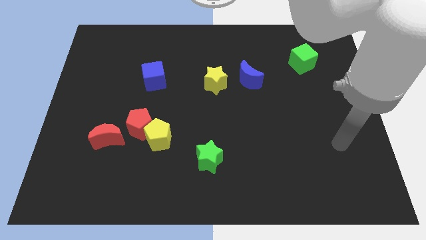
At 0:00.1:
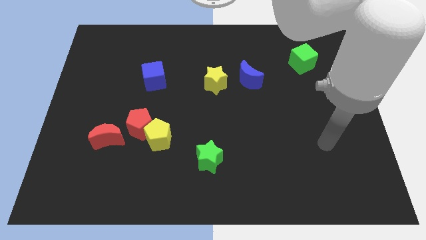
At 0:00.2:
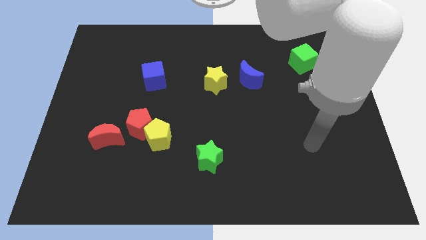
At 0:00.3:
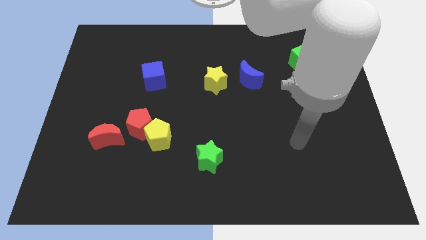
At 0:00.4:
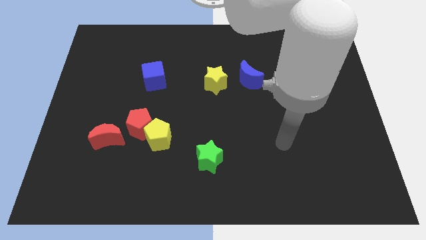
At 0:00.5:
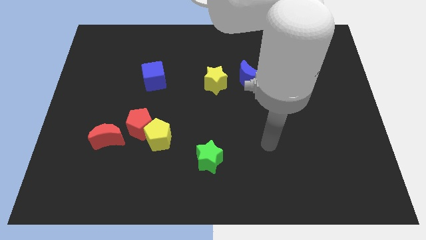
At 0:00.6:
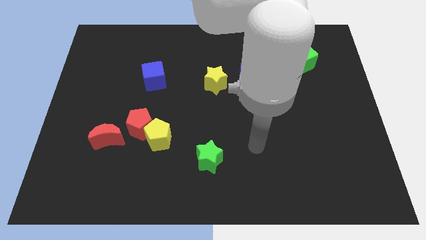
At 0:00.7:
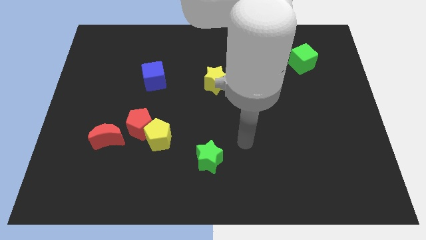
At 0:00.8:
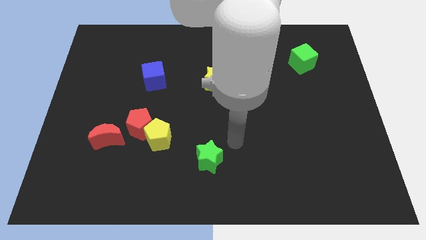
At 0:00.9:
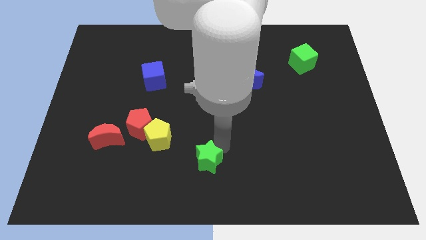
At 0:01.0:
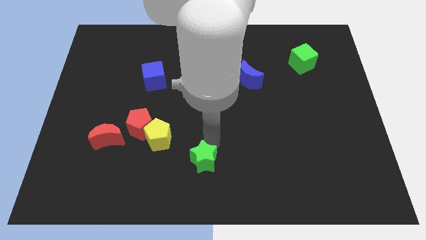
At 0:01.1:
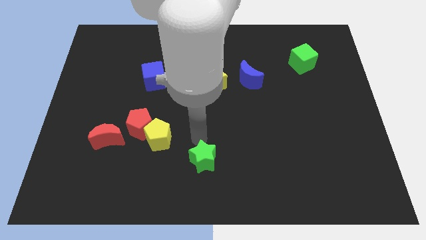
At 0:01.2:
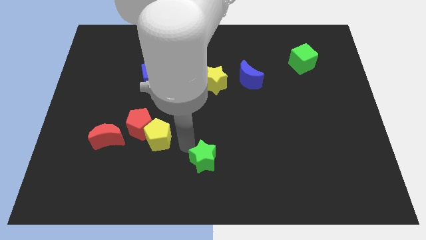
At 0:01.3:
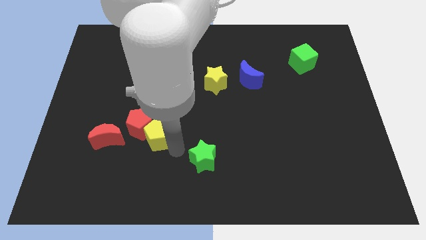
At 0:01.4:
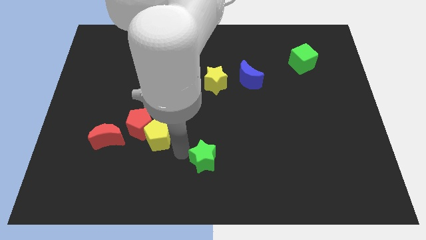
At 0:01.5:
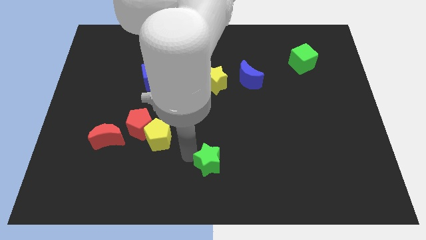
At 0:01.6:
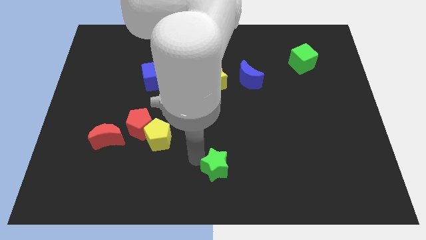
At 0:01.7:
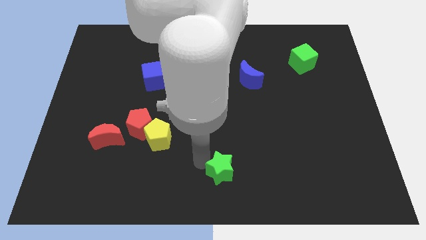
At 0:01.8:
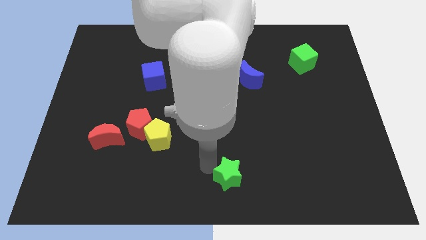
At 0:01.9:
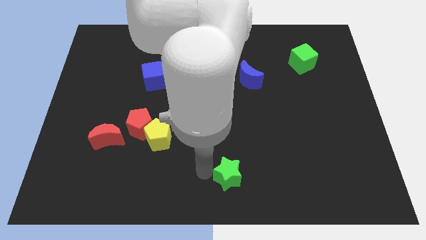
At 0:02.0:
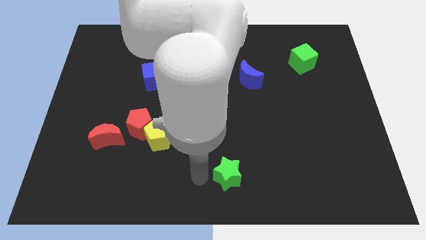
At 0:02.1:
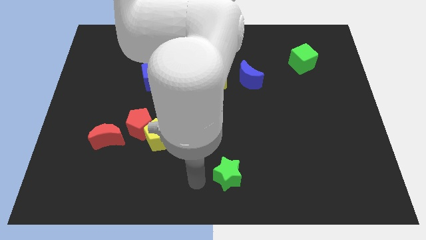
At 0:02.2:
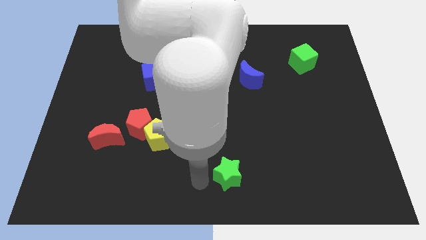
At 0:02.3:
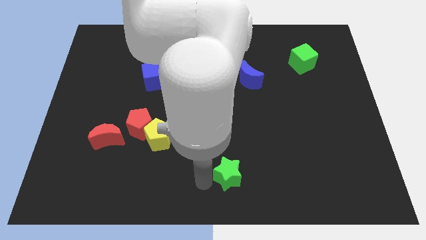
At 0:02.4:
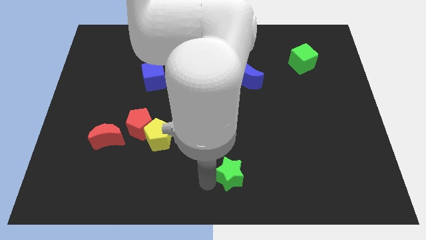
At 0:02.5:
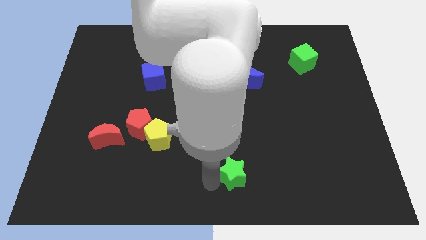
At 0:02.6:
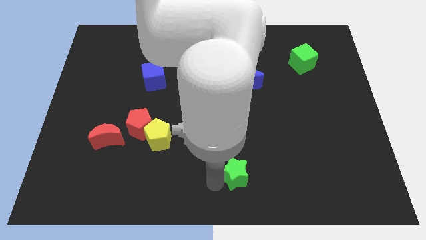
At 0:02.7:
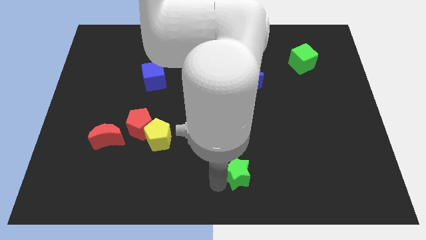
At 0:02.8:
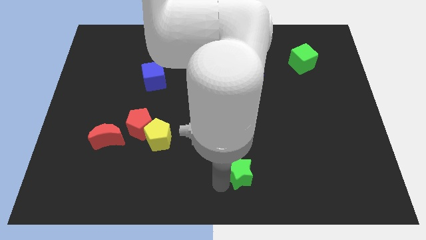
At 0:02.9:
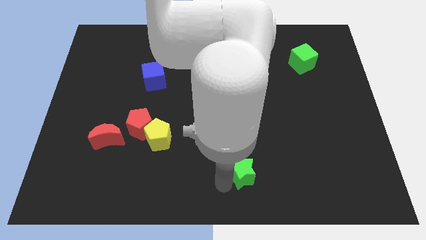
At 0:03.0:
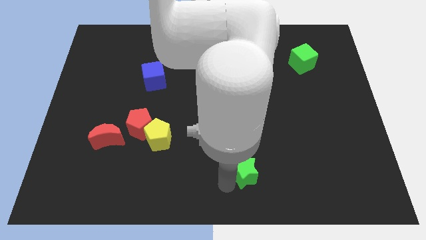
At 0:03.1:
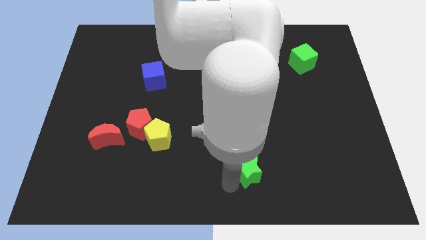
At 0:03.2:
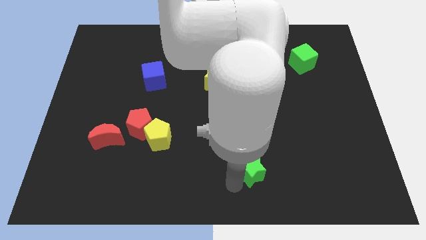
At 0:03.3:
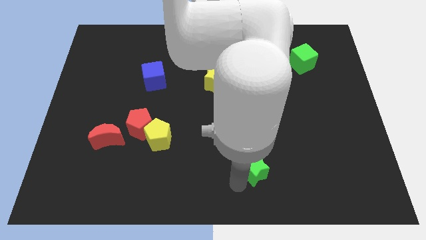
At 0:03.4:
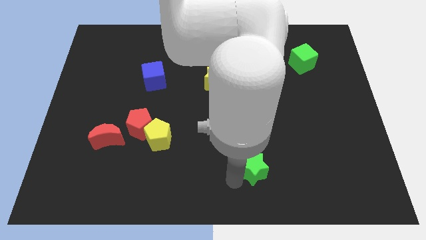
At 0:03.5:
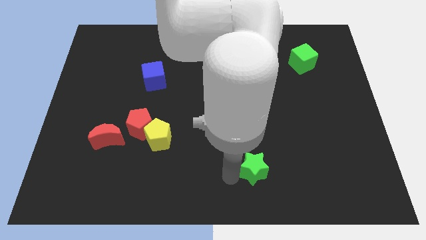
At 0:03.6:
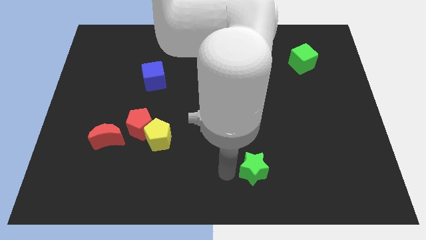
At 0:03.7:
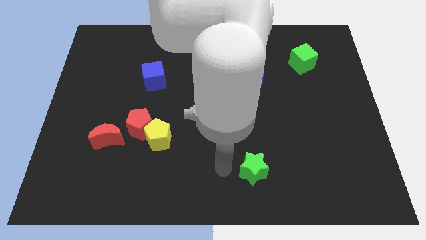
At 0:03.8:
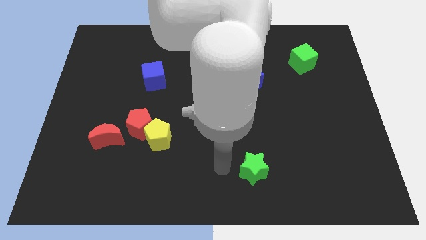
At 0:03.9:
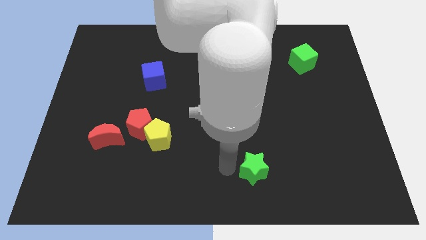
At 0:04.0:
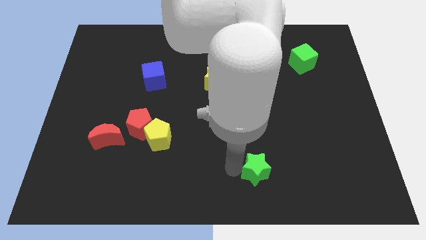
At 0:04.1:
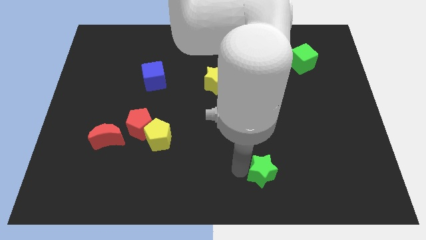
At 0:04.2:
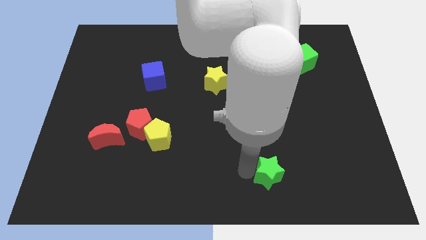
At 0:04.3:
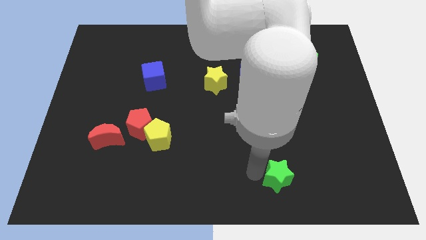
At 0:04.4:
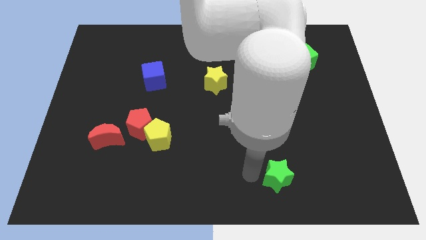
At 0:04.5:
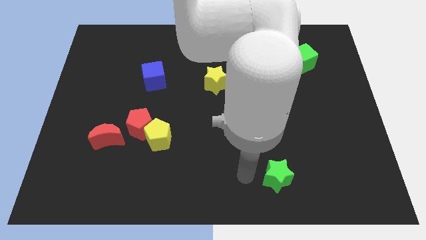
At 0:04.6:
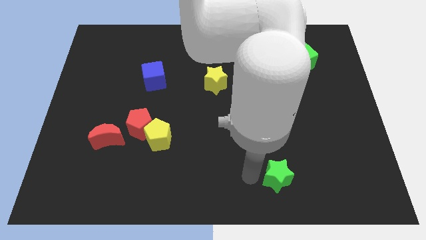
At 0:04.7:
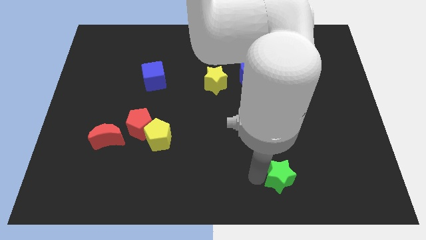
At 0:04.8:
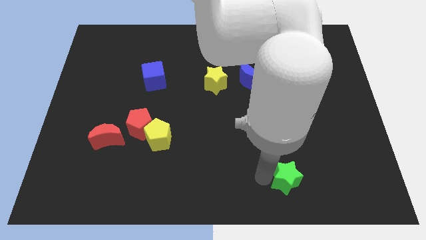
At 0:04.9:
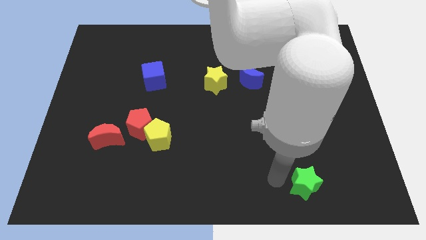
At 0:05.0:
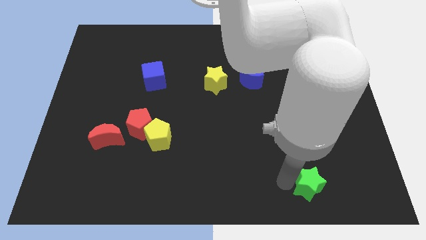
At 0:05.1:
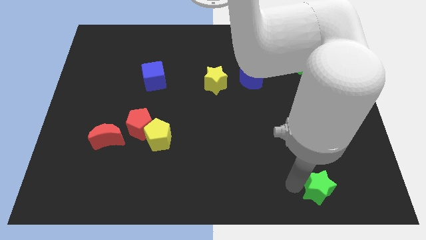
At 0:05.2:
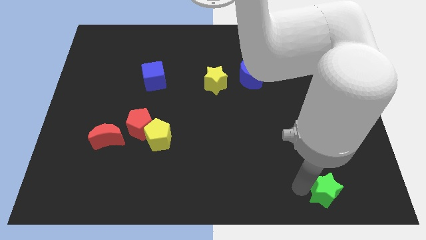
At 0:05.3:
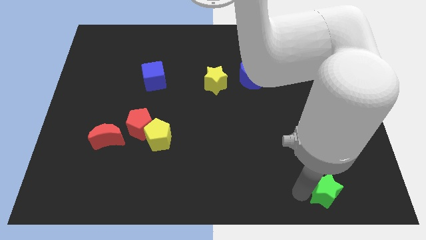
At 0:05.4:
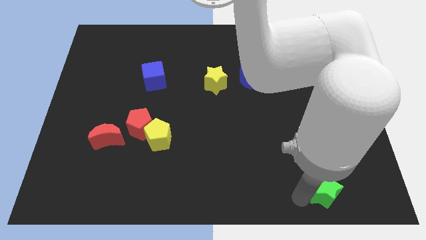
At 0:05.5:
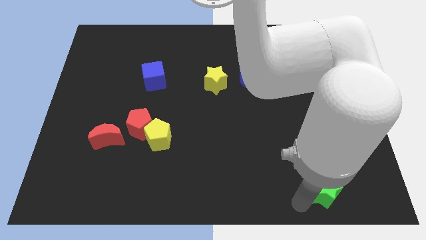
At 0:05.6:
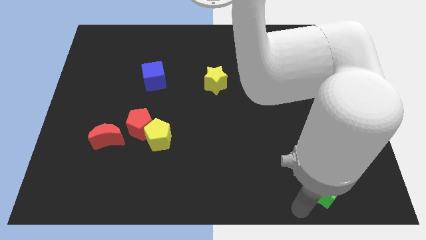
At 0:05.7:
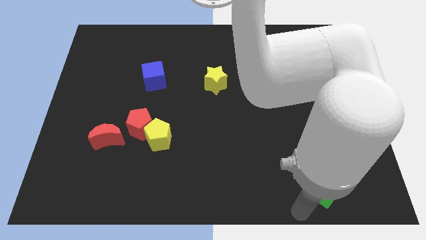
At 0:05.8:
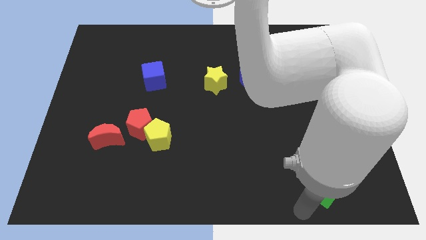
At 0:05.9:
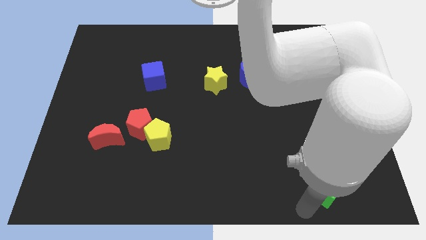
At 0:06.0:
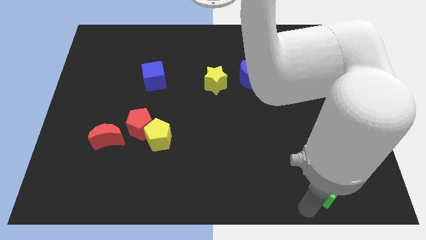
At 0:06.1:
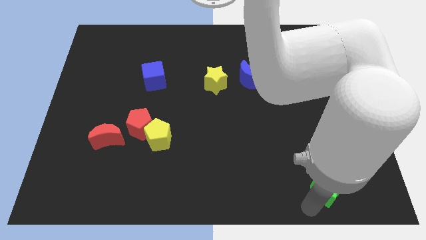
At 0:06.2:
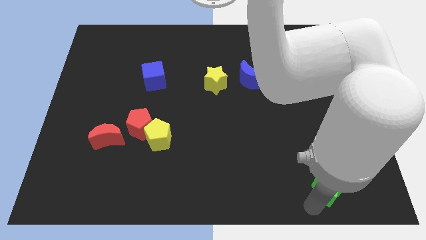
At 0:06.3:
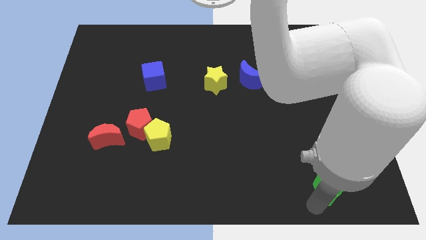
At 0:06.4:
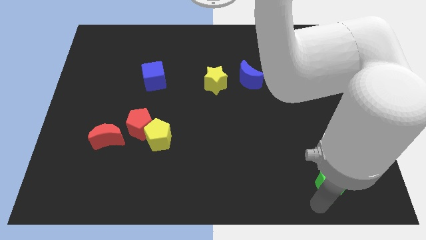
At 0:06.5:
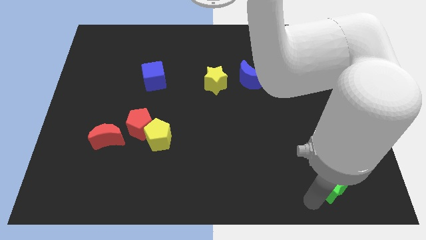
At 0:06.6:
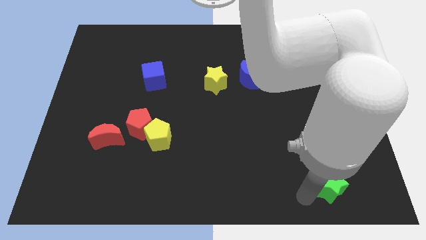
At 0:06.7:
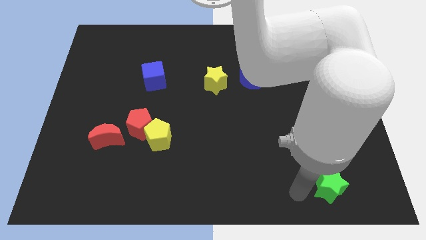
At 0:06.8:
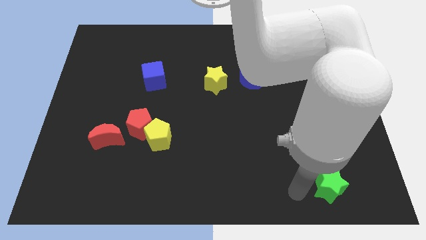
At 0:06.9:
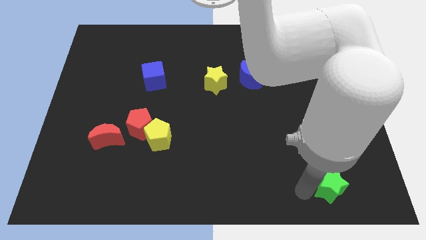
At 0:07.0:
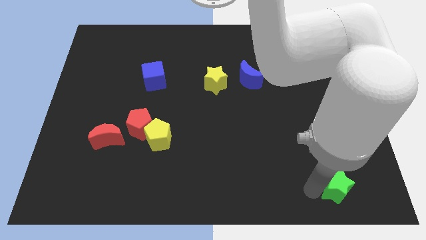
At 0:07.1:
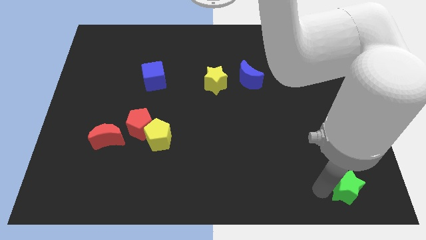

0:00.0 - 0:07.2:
push the green star to the bottom right
